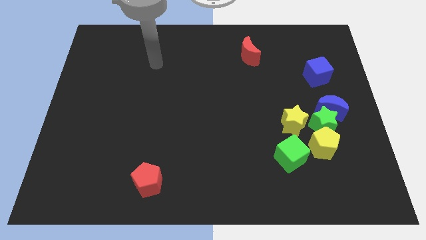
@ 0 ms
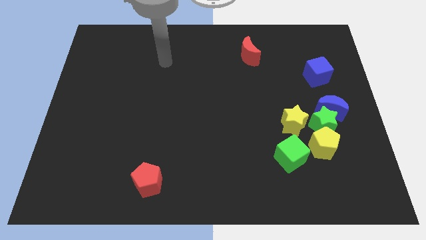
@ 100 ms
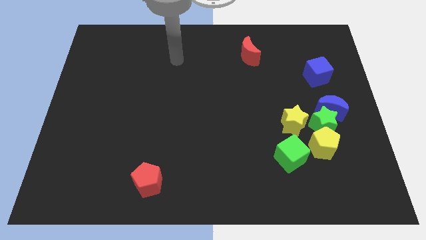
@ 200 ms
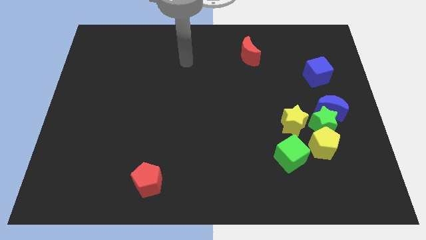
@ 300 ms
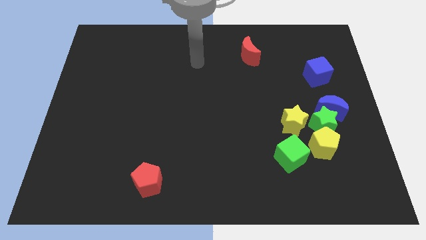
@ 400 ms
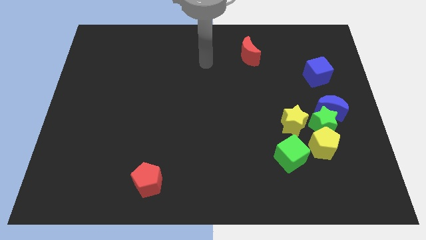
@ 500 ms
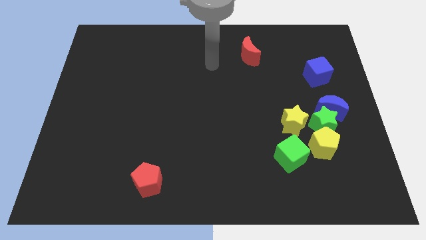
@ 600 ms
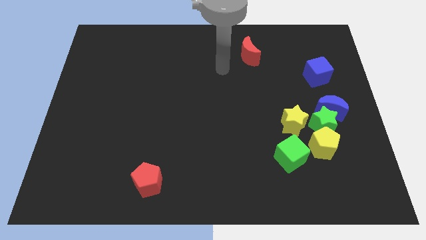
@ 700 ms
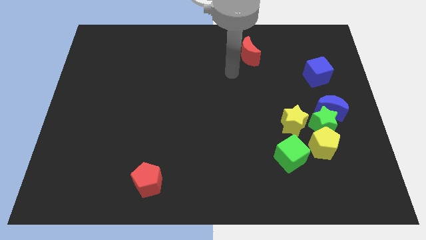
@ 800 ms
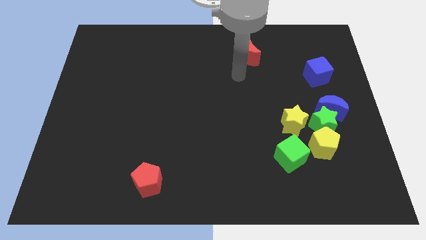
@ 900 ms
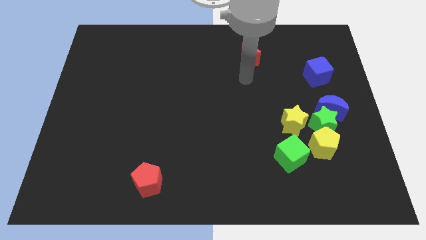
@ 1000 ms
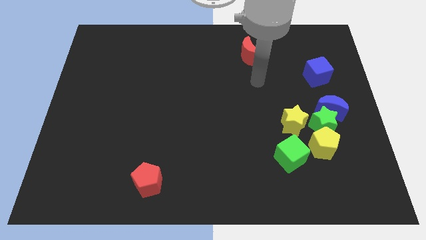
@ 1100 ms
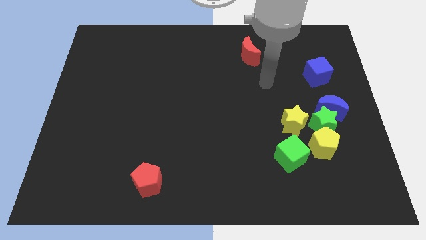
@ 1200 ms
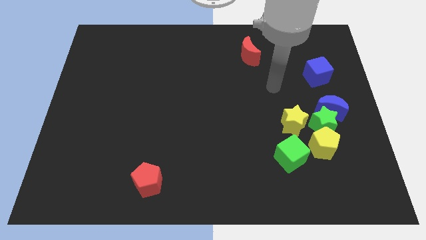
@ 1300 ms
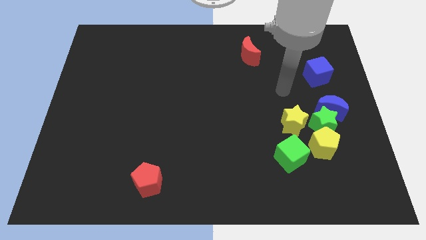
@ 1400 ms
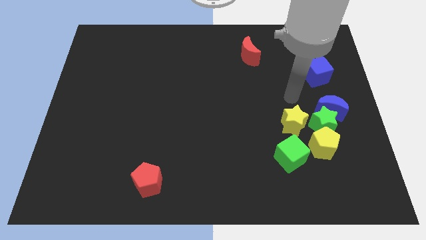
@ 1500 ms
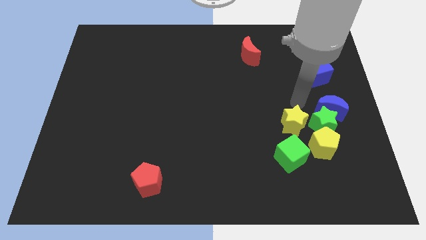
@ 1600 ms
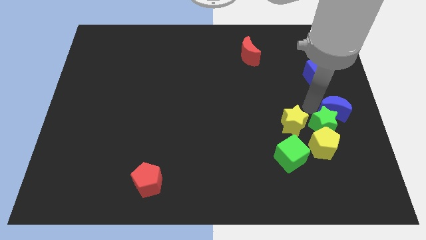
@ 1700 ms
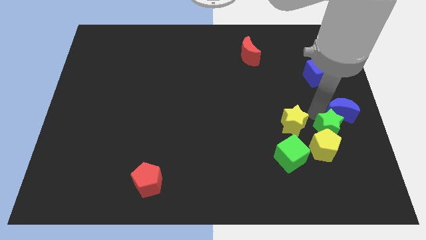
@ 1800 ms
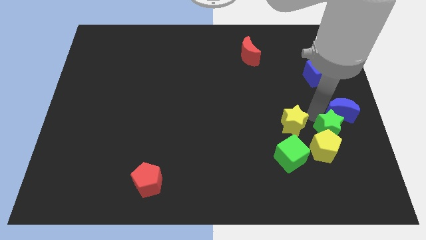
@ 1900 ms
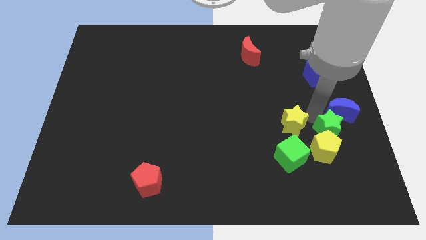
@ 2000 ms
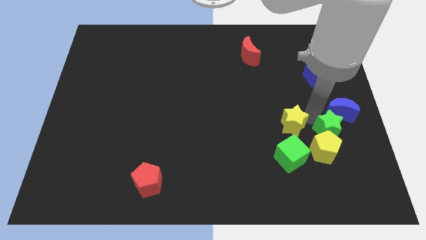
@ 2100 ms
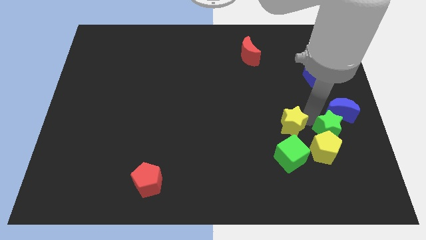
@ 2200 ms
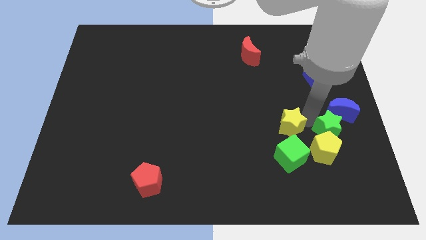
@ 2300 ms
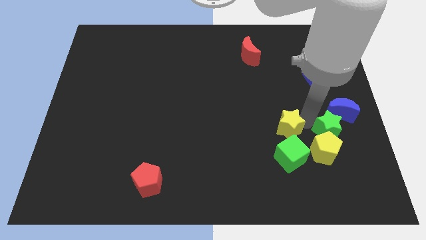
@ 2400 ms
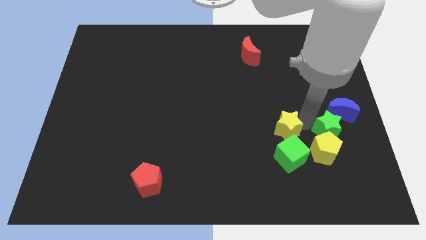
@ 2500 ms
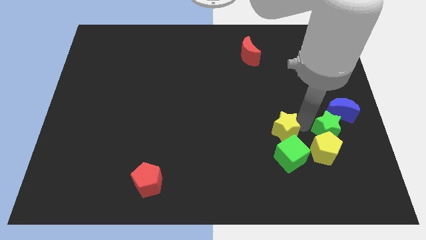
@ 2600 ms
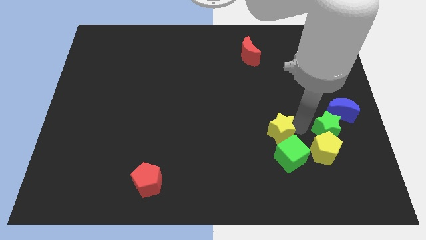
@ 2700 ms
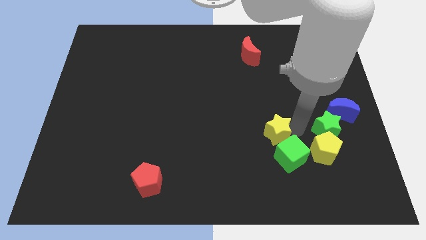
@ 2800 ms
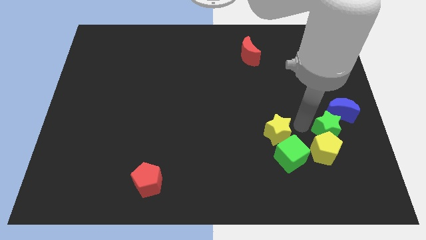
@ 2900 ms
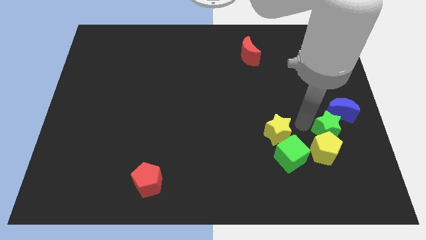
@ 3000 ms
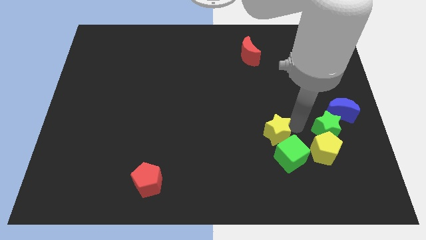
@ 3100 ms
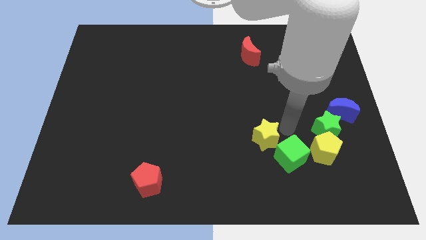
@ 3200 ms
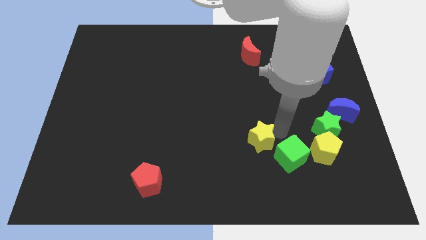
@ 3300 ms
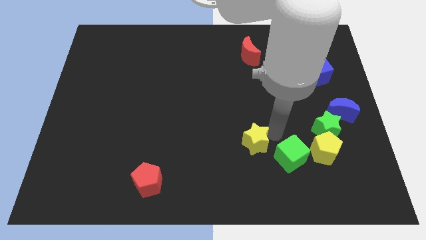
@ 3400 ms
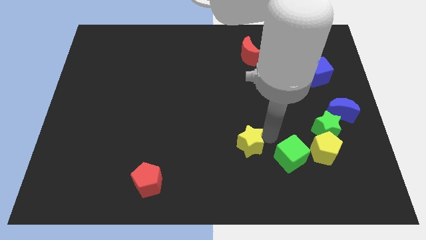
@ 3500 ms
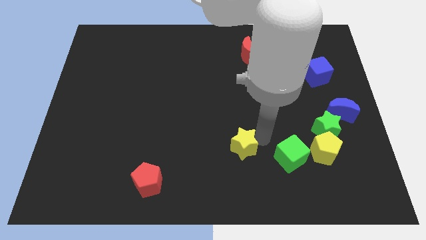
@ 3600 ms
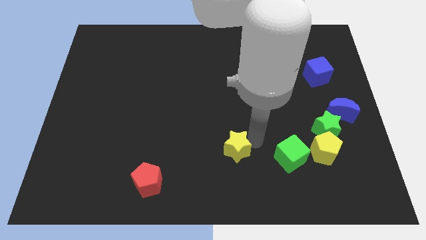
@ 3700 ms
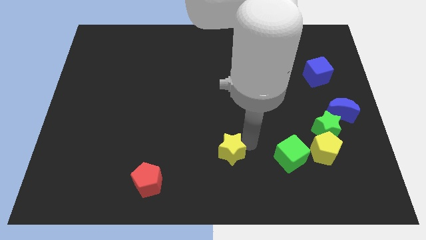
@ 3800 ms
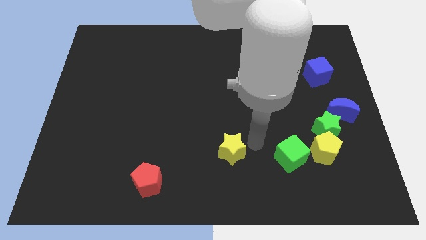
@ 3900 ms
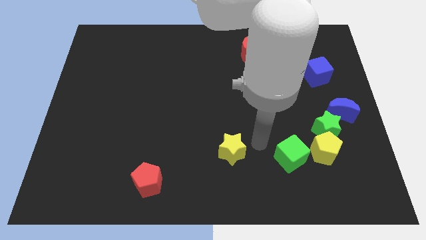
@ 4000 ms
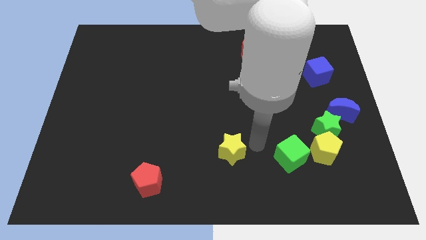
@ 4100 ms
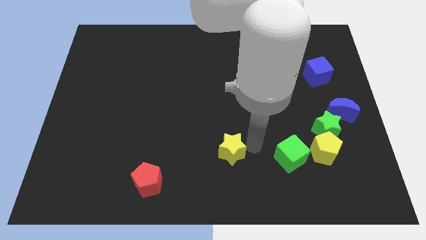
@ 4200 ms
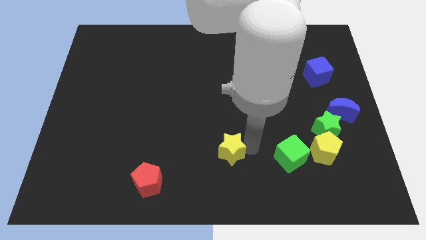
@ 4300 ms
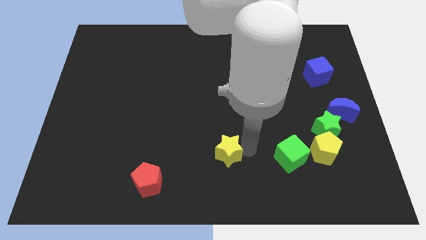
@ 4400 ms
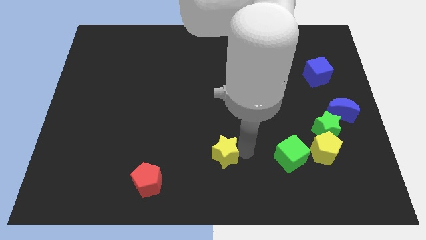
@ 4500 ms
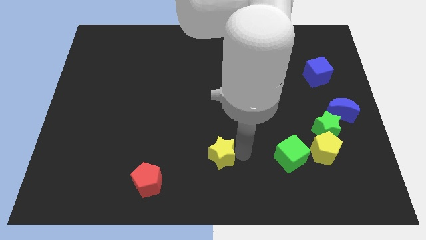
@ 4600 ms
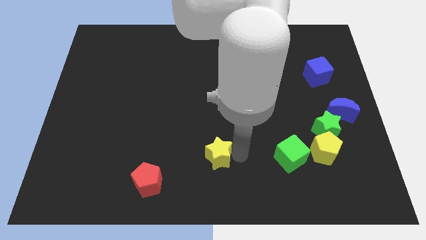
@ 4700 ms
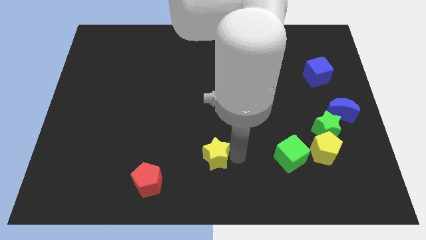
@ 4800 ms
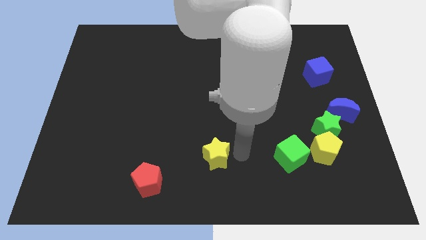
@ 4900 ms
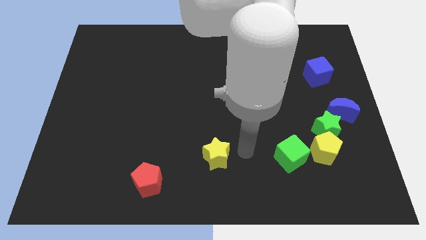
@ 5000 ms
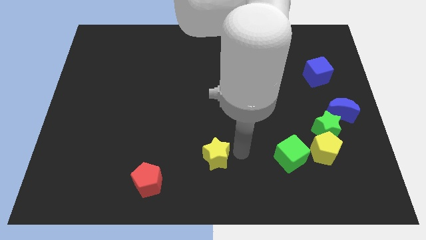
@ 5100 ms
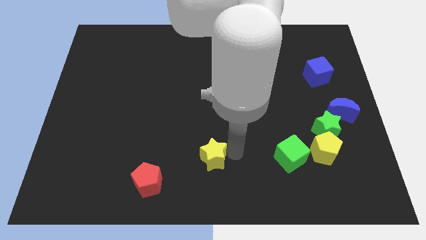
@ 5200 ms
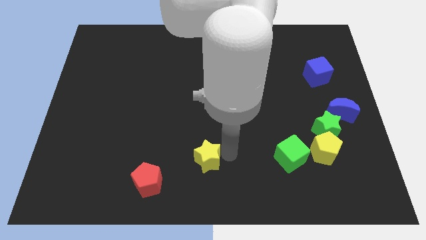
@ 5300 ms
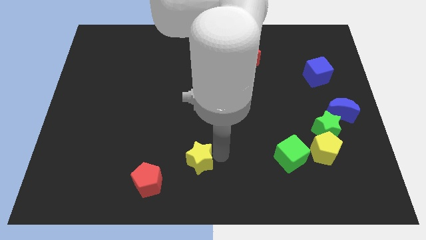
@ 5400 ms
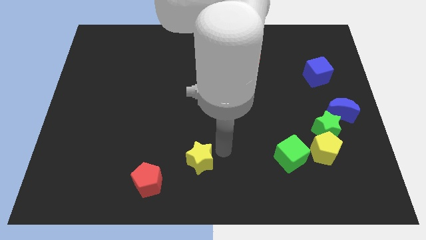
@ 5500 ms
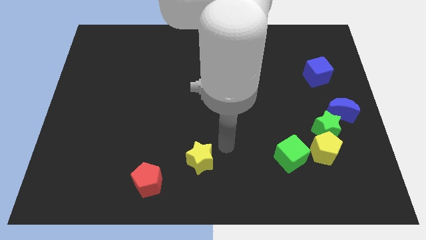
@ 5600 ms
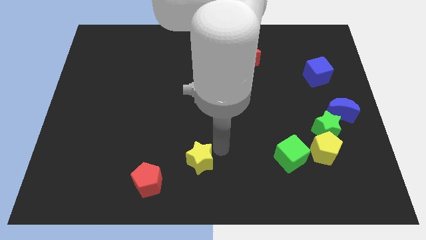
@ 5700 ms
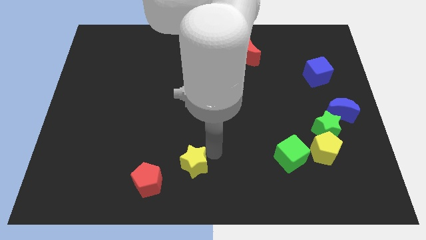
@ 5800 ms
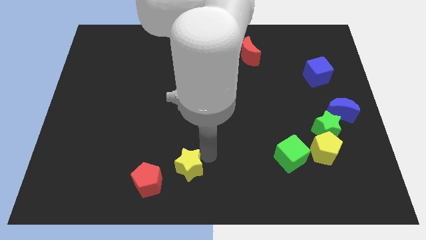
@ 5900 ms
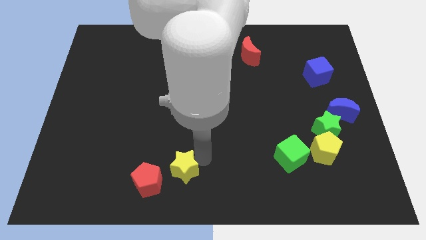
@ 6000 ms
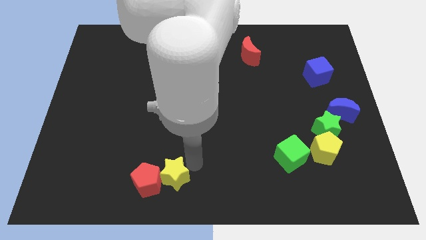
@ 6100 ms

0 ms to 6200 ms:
slide the yellow star to the red pentagon

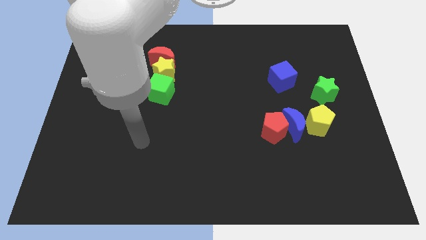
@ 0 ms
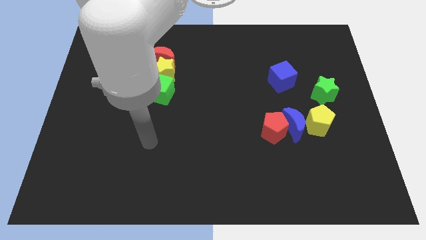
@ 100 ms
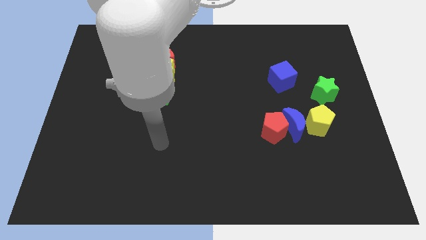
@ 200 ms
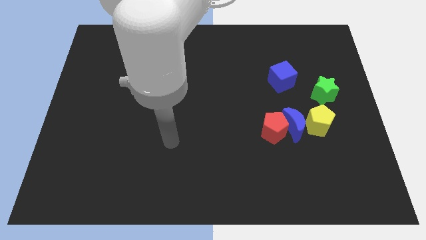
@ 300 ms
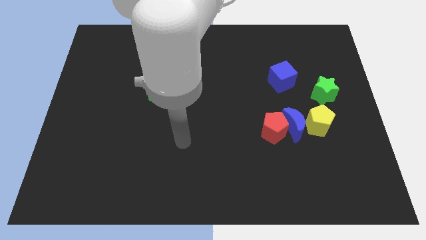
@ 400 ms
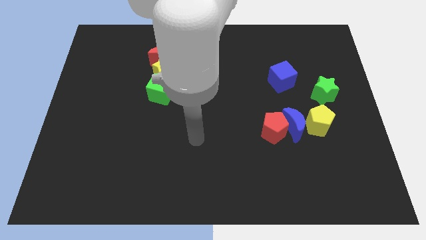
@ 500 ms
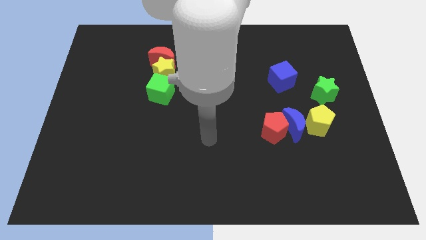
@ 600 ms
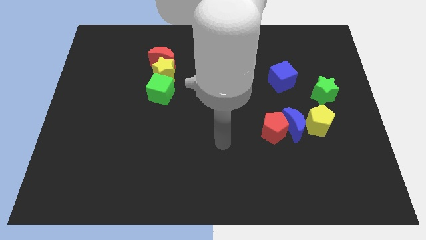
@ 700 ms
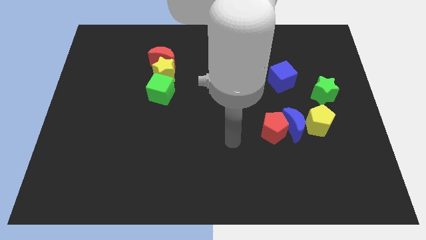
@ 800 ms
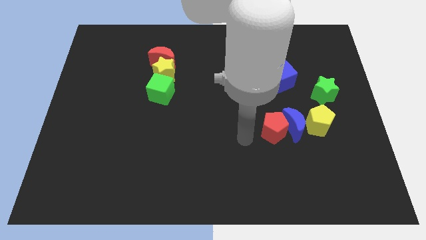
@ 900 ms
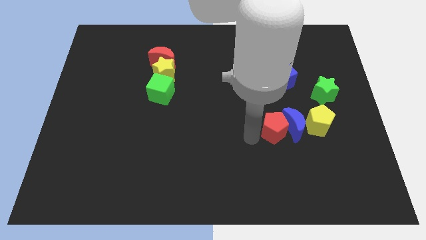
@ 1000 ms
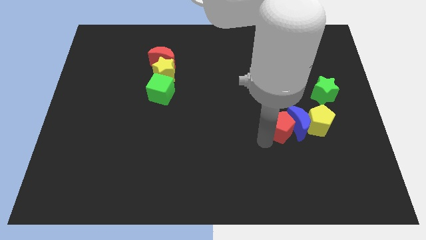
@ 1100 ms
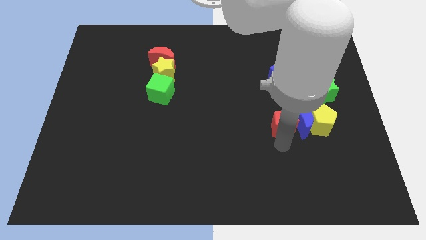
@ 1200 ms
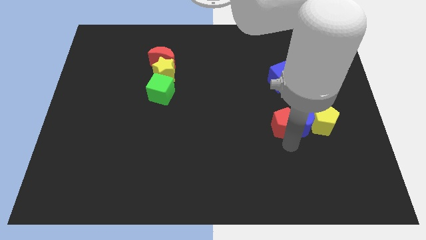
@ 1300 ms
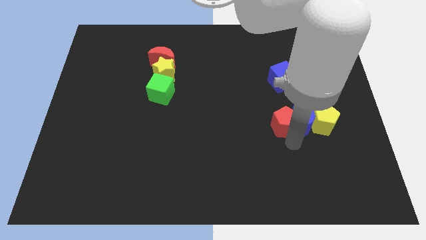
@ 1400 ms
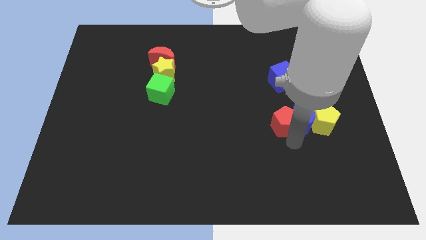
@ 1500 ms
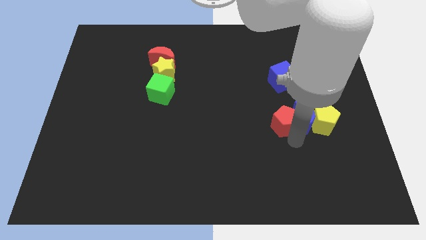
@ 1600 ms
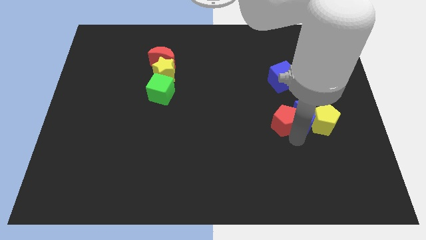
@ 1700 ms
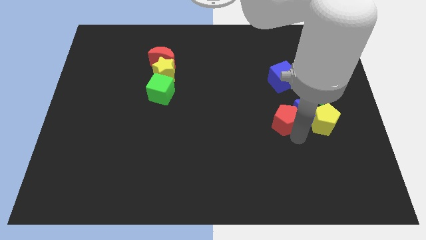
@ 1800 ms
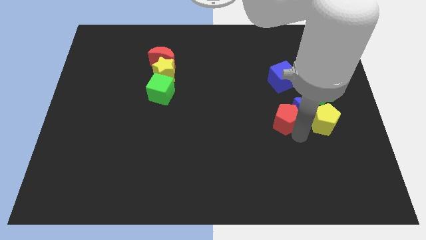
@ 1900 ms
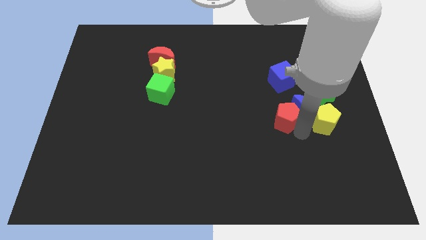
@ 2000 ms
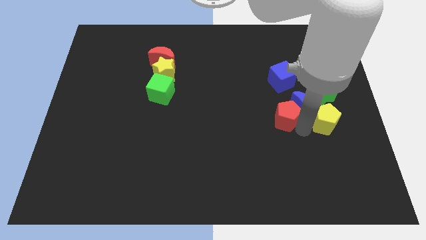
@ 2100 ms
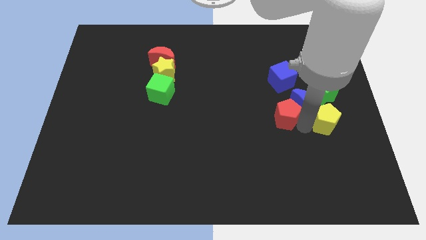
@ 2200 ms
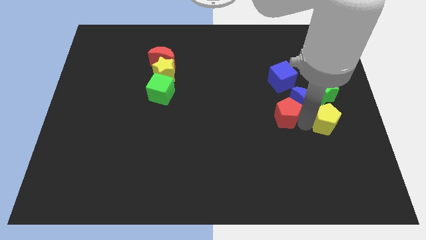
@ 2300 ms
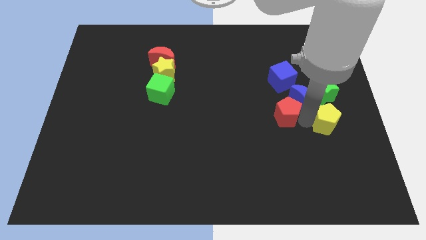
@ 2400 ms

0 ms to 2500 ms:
slide the blue moon close to the green star
